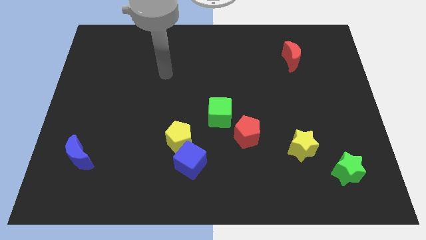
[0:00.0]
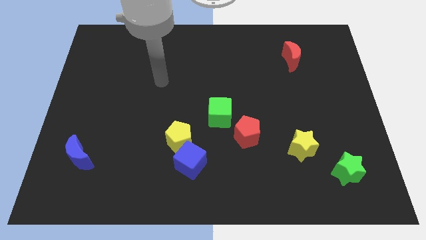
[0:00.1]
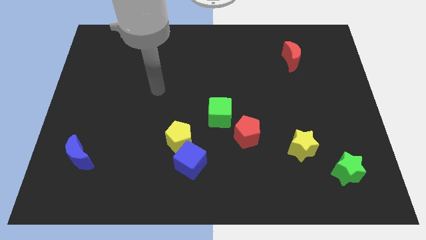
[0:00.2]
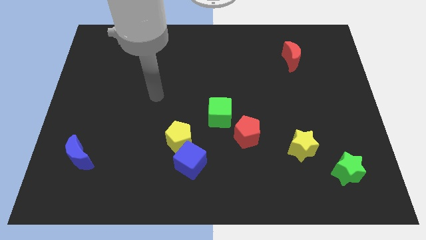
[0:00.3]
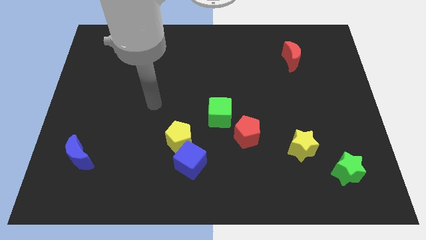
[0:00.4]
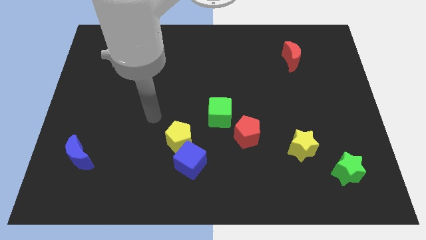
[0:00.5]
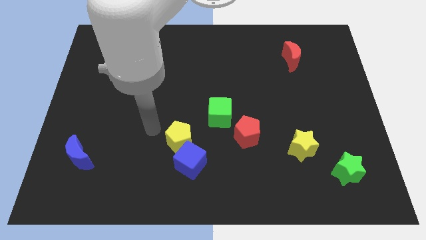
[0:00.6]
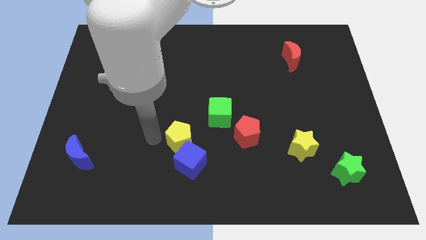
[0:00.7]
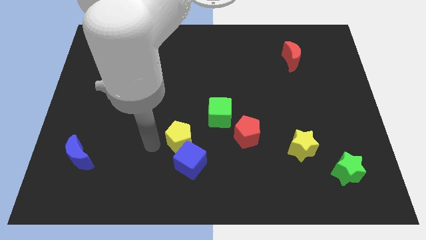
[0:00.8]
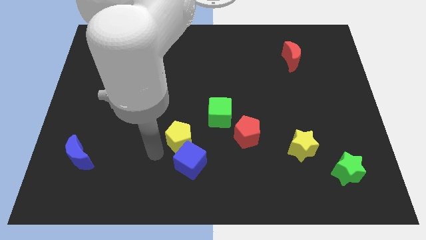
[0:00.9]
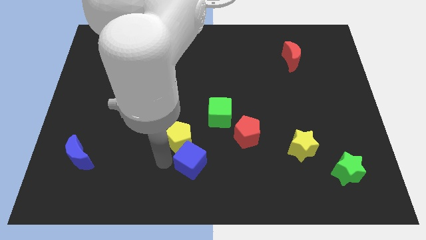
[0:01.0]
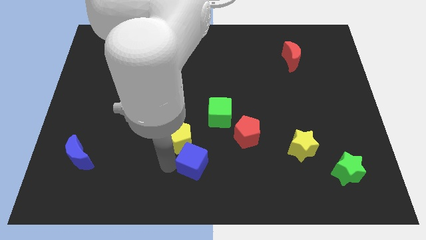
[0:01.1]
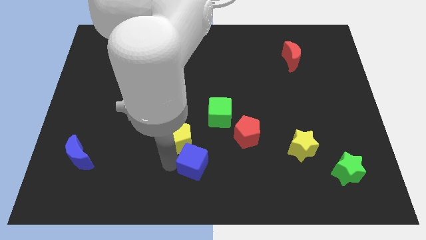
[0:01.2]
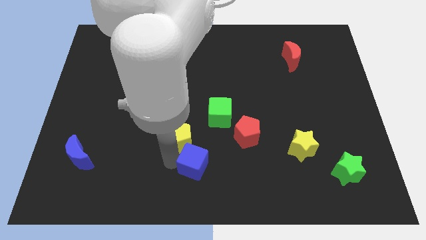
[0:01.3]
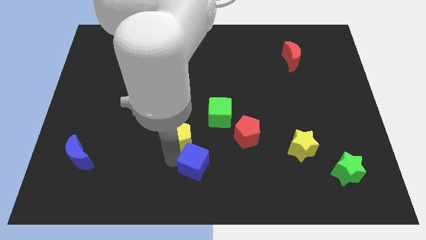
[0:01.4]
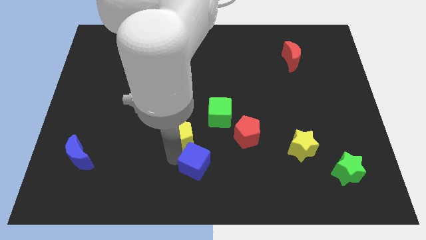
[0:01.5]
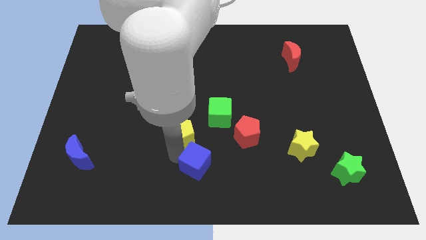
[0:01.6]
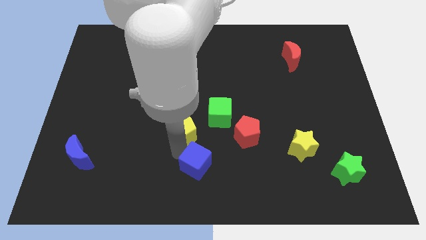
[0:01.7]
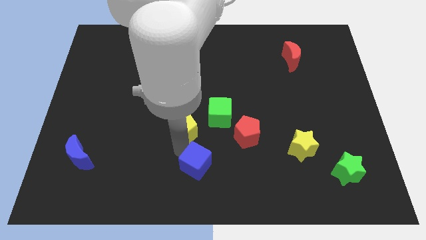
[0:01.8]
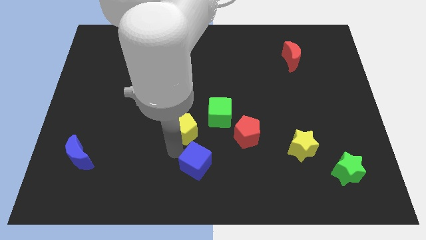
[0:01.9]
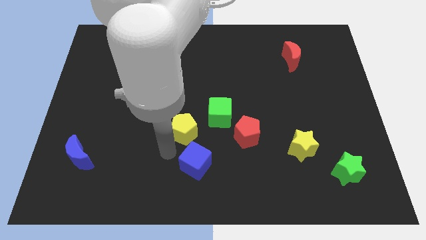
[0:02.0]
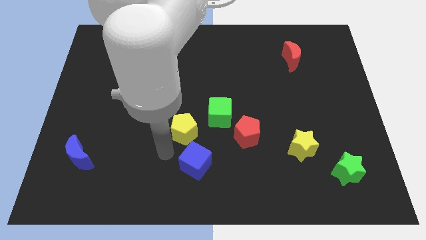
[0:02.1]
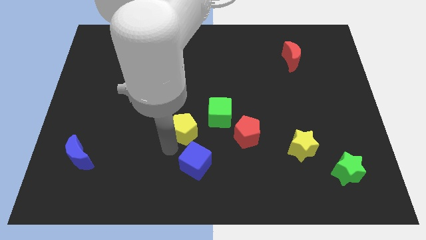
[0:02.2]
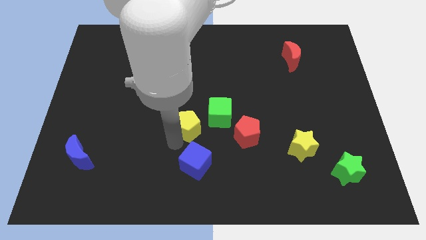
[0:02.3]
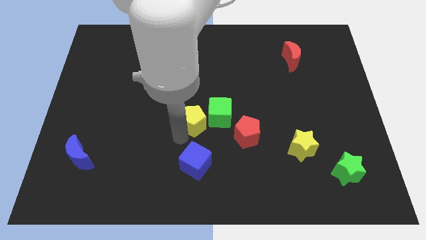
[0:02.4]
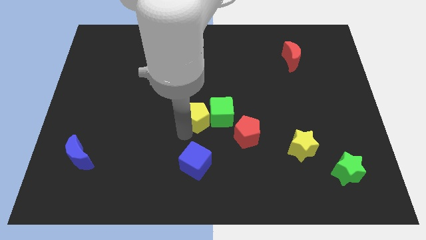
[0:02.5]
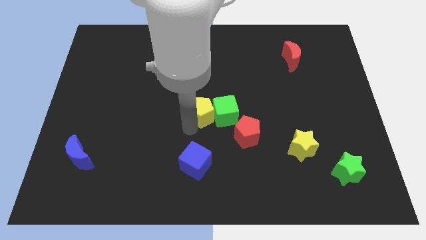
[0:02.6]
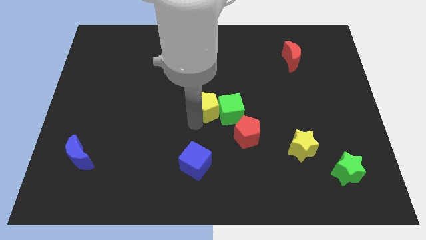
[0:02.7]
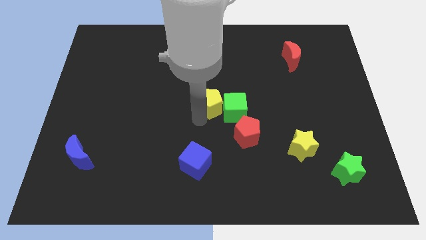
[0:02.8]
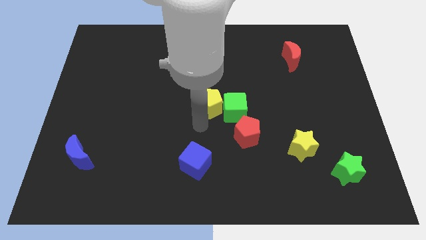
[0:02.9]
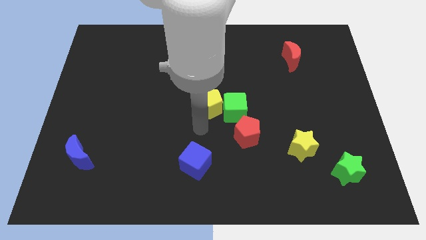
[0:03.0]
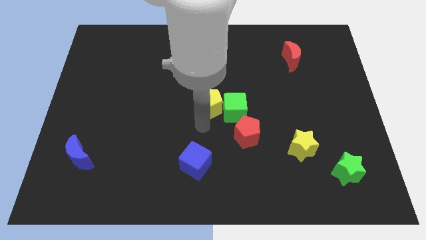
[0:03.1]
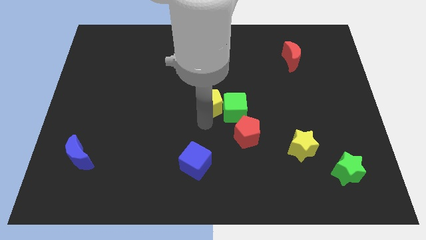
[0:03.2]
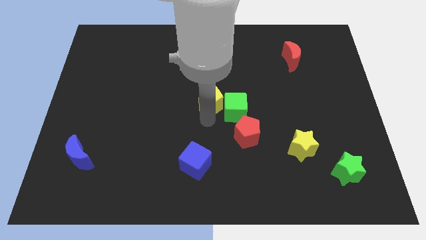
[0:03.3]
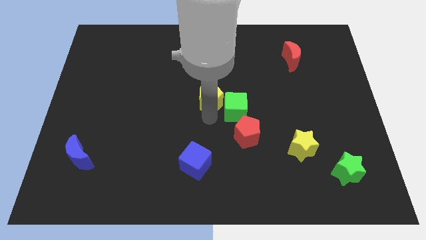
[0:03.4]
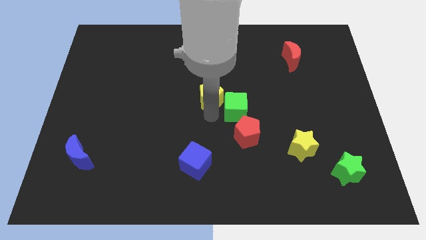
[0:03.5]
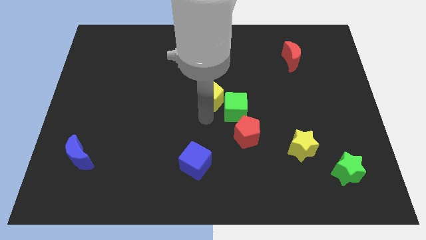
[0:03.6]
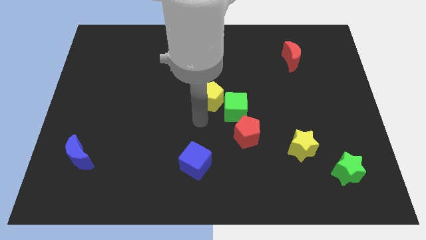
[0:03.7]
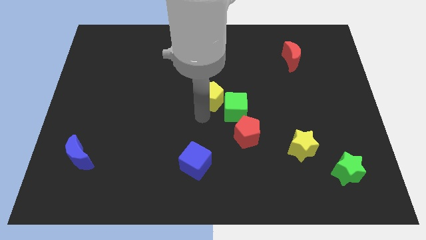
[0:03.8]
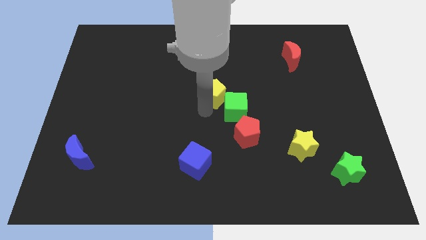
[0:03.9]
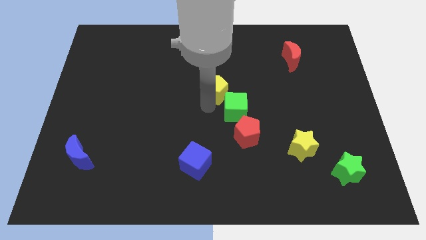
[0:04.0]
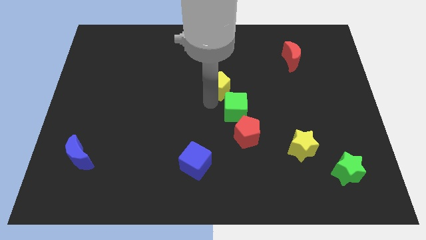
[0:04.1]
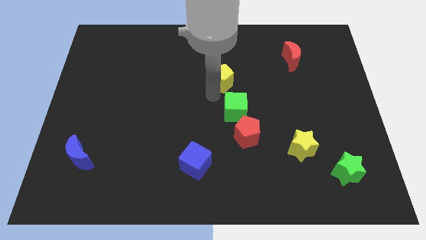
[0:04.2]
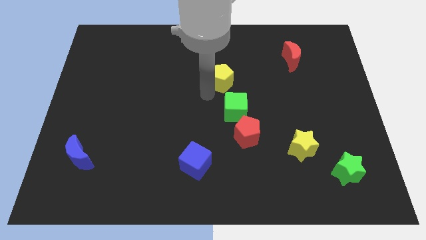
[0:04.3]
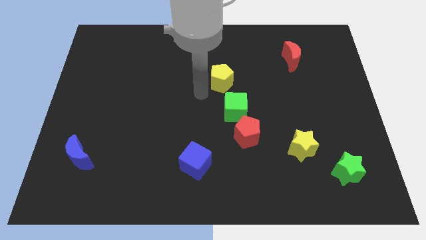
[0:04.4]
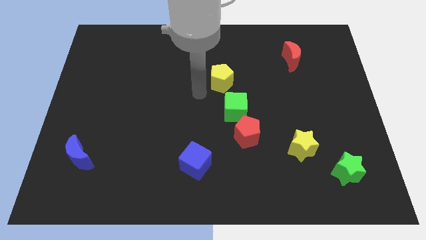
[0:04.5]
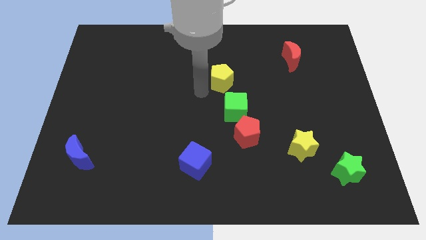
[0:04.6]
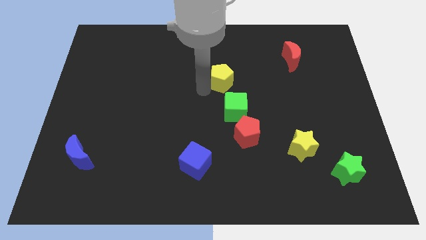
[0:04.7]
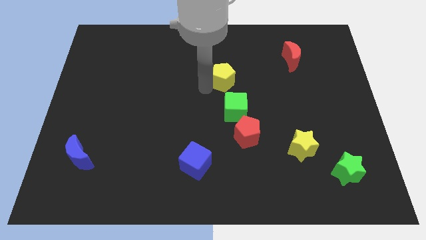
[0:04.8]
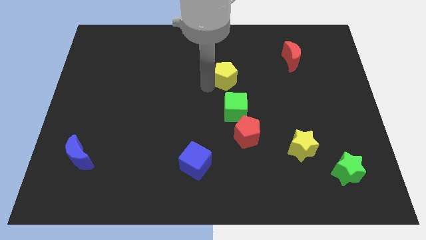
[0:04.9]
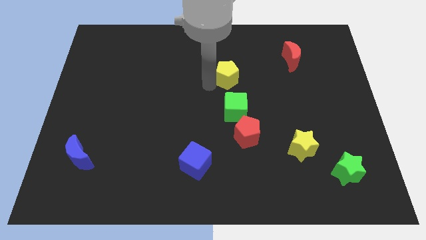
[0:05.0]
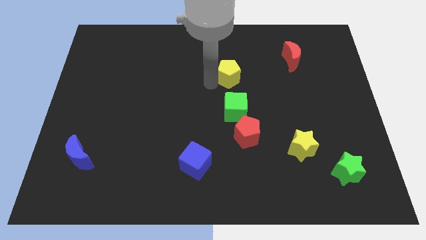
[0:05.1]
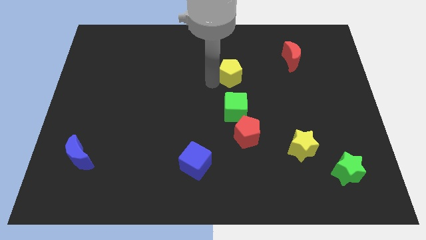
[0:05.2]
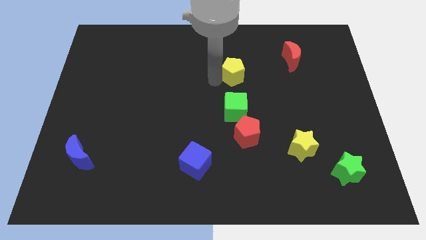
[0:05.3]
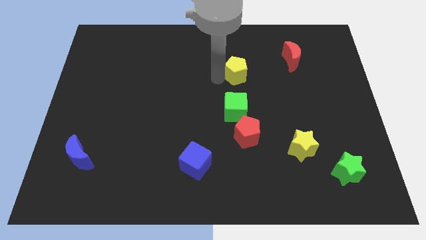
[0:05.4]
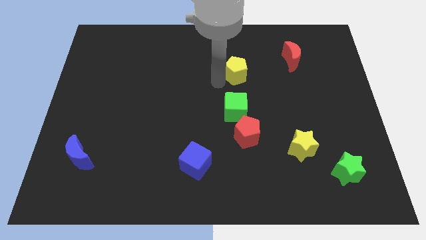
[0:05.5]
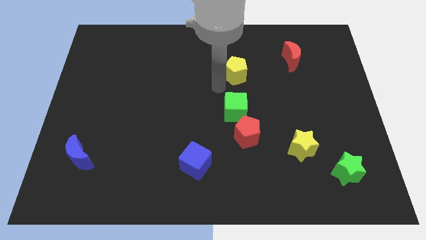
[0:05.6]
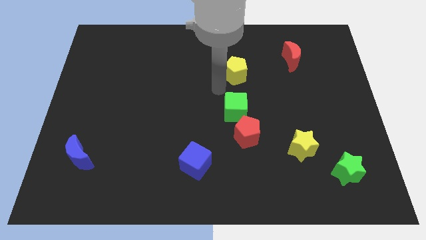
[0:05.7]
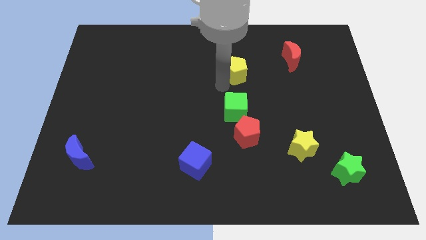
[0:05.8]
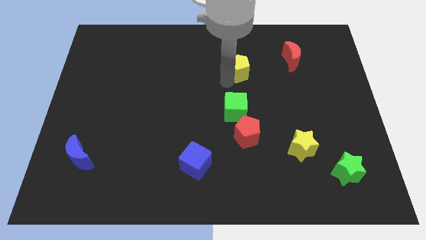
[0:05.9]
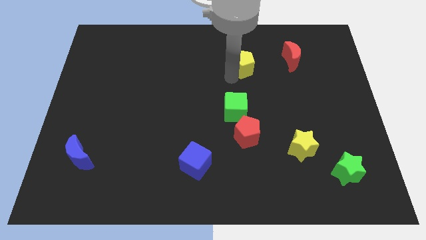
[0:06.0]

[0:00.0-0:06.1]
move the yellow pentagon to the left of the red moon
